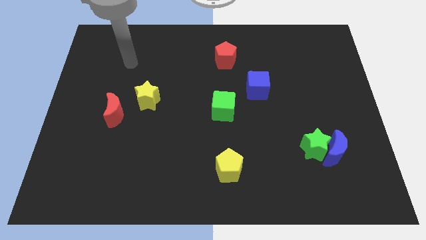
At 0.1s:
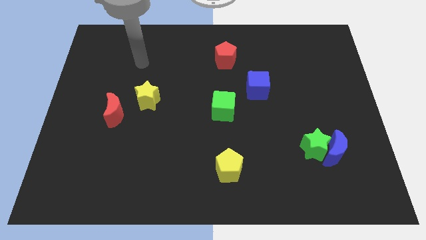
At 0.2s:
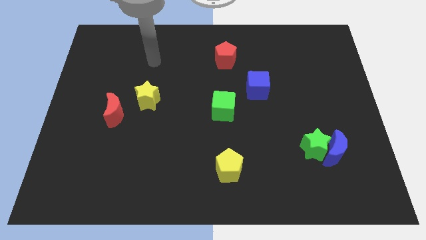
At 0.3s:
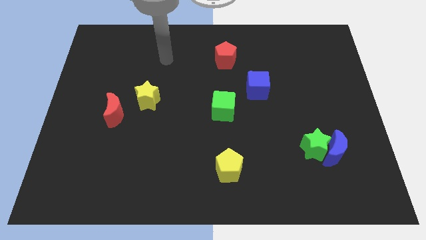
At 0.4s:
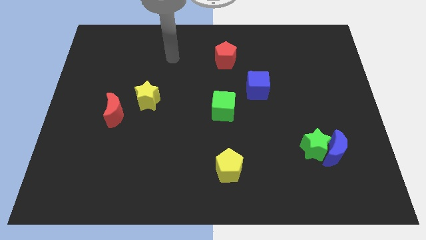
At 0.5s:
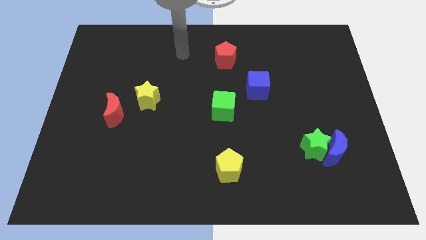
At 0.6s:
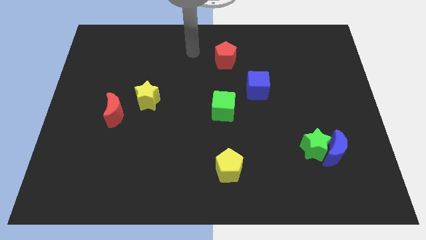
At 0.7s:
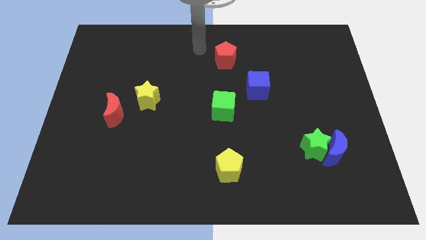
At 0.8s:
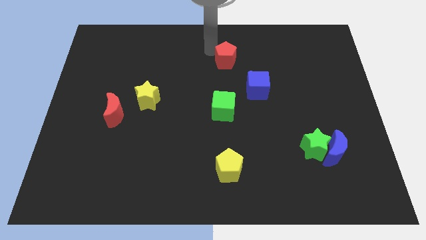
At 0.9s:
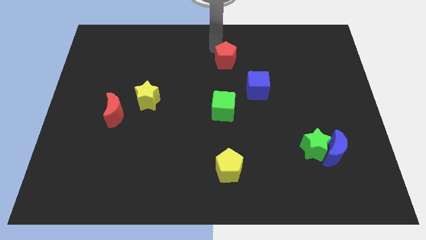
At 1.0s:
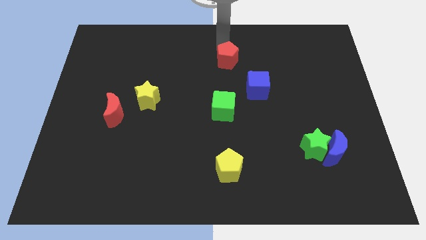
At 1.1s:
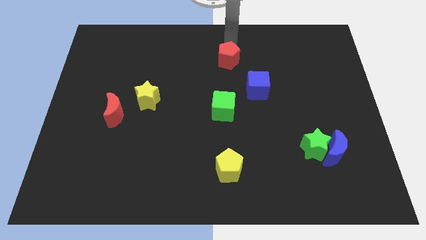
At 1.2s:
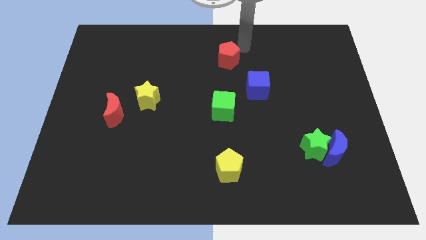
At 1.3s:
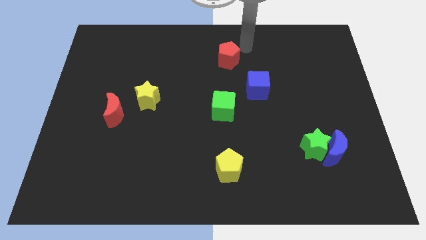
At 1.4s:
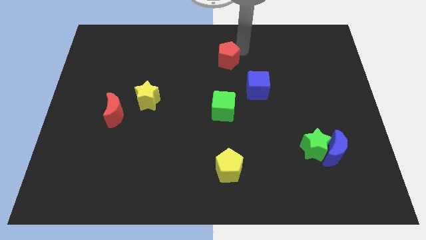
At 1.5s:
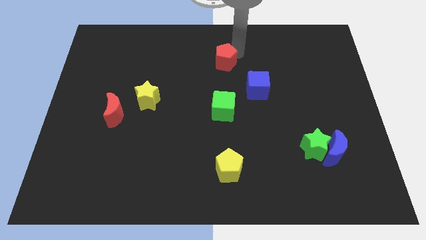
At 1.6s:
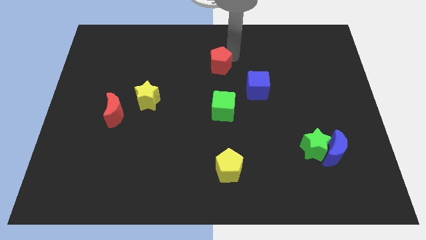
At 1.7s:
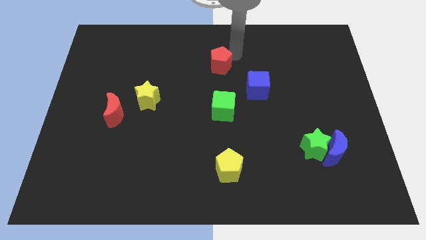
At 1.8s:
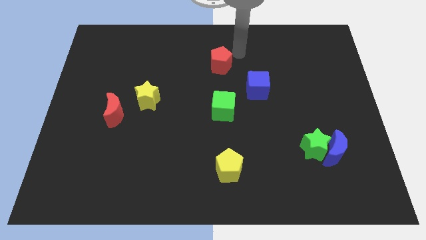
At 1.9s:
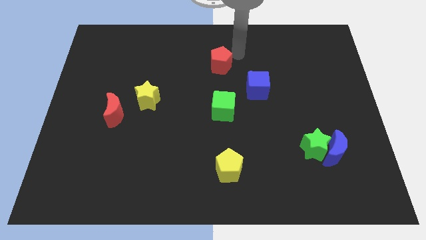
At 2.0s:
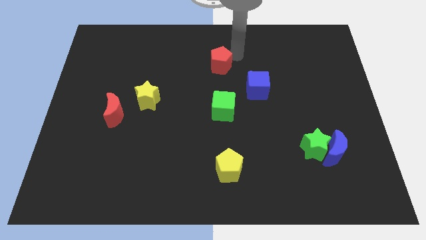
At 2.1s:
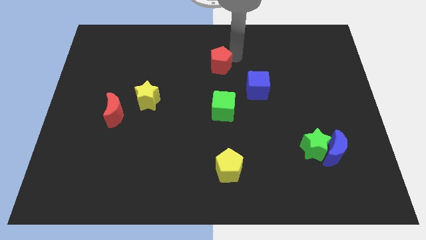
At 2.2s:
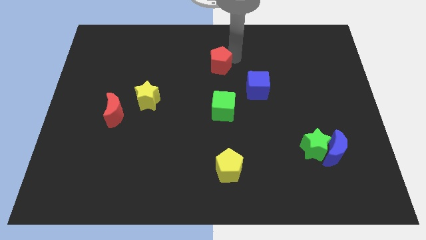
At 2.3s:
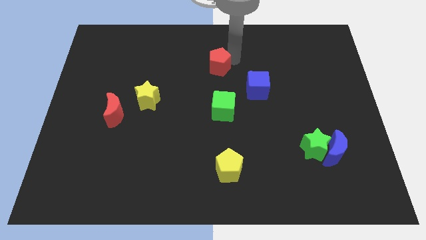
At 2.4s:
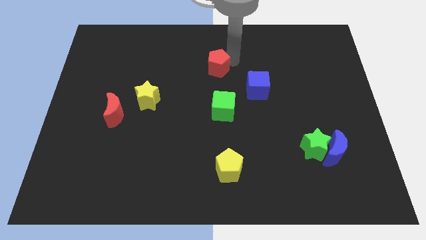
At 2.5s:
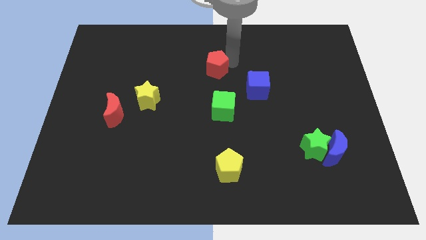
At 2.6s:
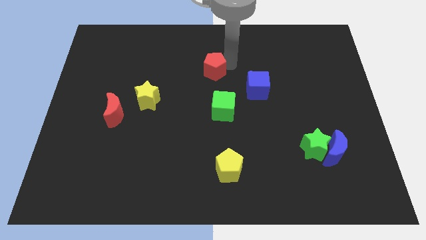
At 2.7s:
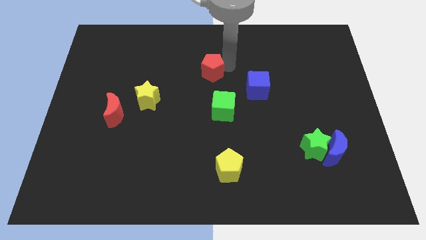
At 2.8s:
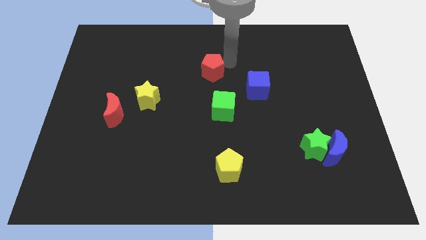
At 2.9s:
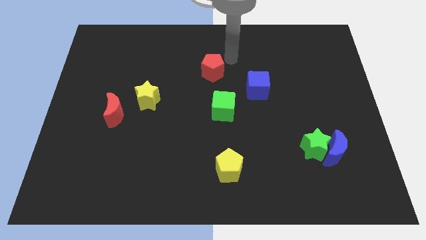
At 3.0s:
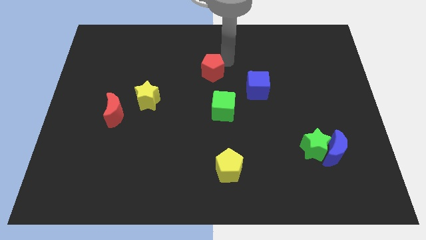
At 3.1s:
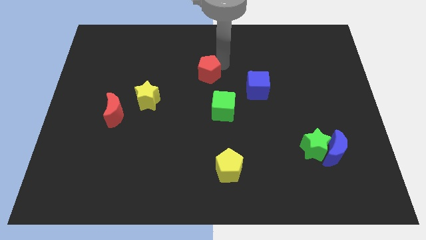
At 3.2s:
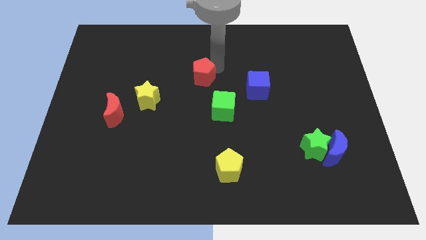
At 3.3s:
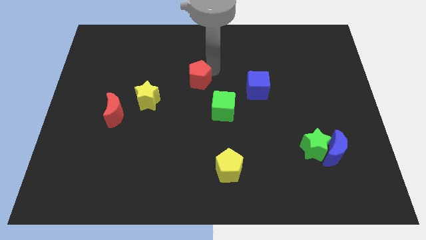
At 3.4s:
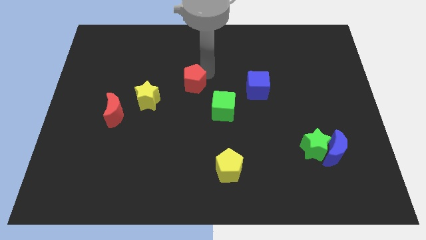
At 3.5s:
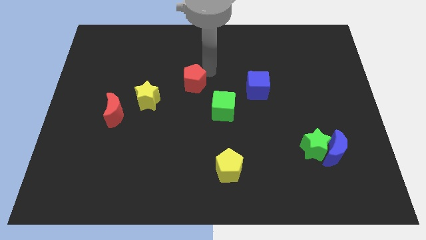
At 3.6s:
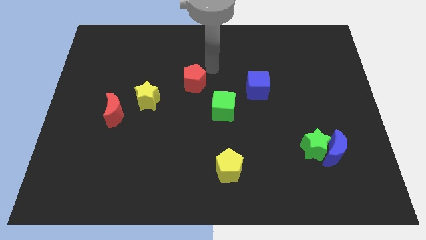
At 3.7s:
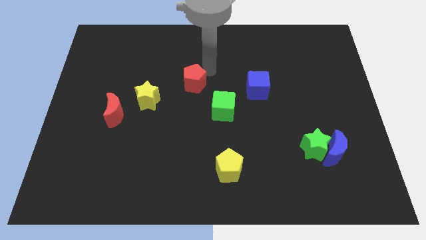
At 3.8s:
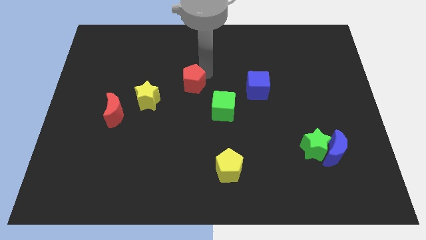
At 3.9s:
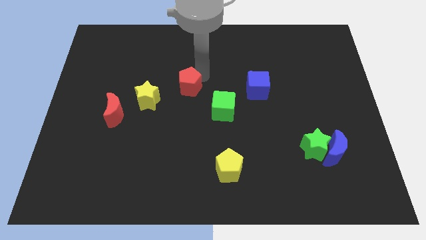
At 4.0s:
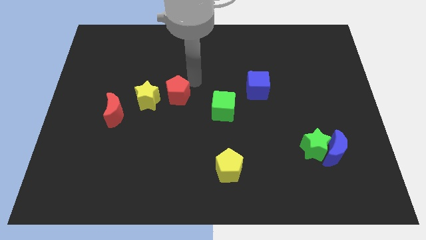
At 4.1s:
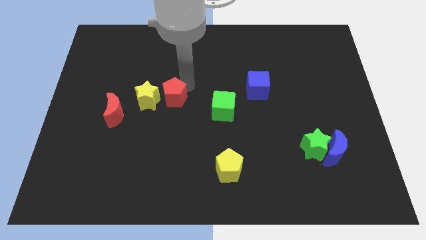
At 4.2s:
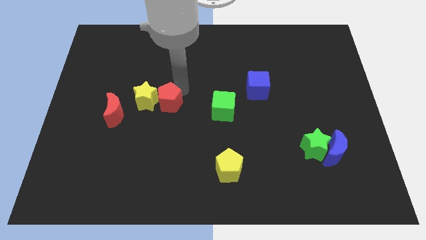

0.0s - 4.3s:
push the red pentagon downwards and then to the left

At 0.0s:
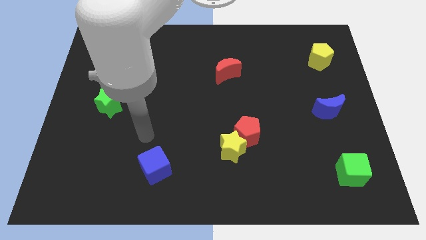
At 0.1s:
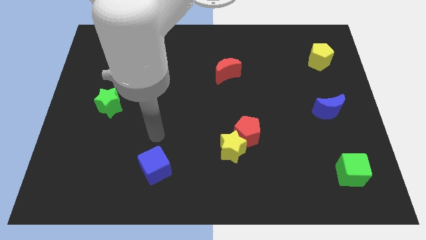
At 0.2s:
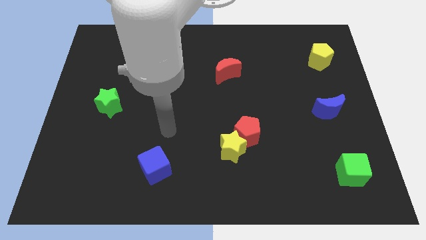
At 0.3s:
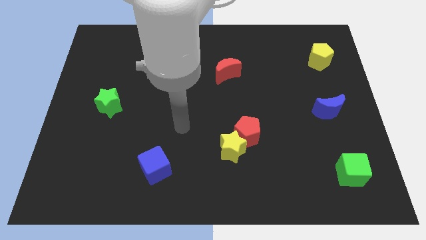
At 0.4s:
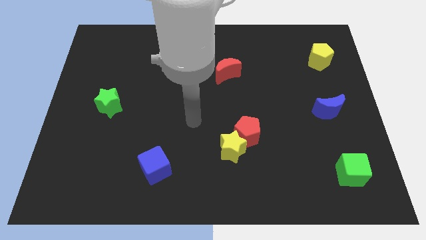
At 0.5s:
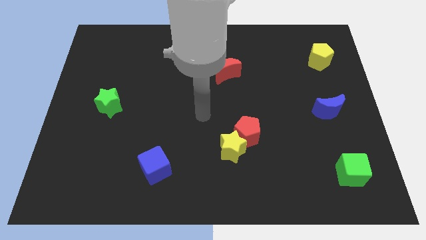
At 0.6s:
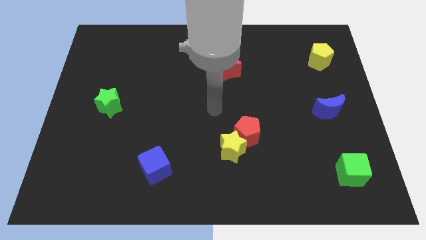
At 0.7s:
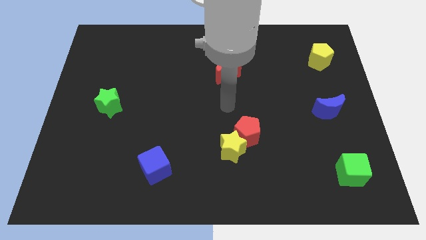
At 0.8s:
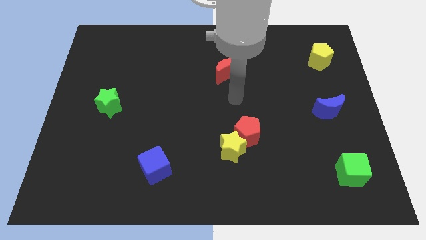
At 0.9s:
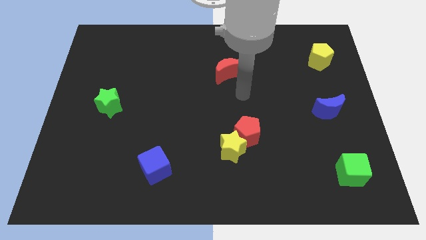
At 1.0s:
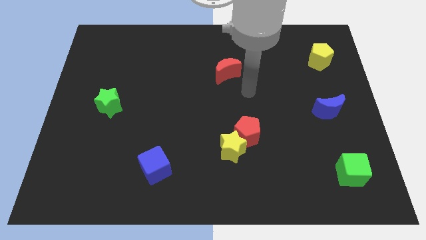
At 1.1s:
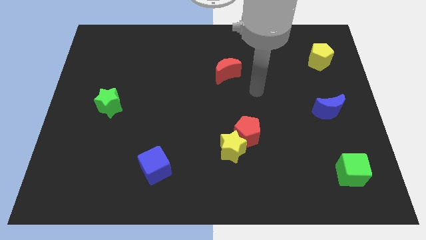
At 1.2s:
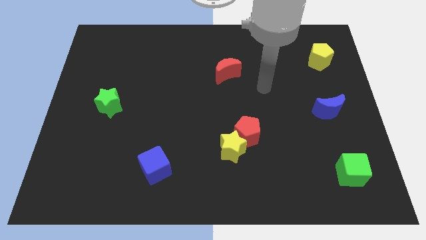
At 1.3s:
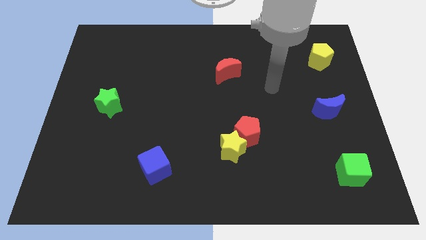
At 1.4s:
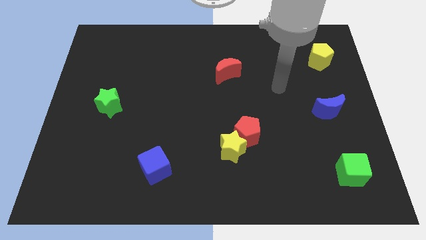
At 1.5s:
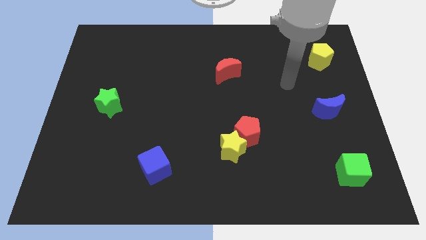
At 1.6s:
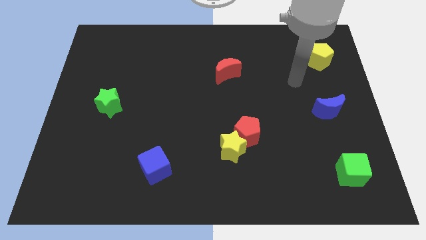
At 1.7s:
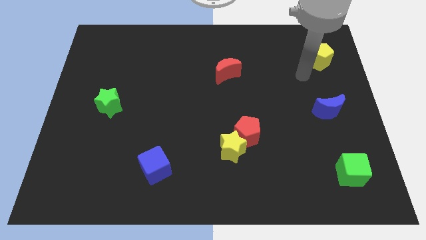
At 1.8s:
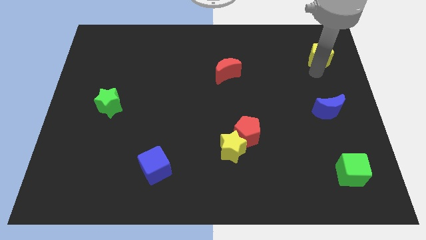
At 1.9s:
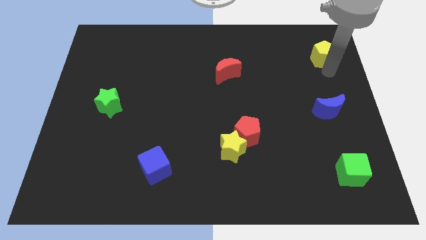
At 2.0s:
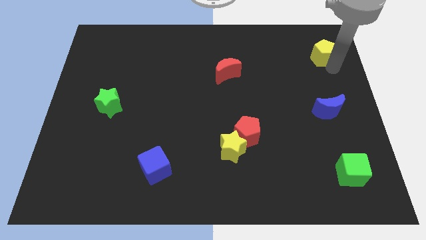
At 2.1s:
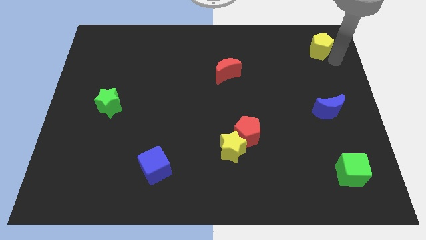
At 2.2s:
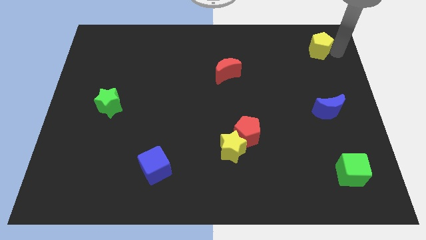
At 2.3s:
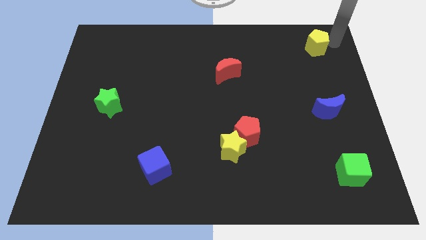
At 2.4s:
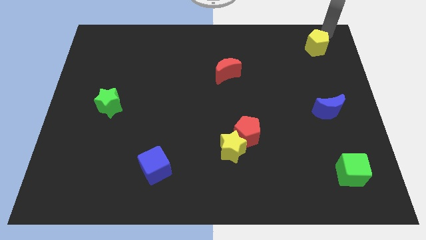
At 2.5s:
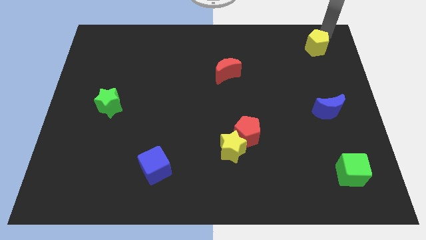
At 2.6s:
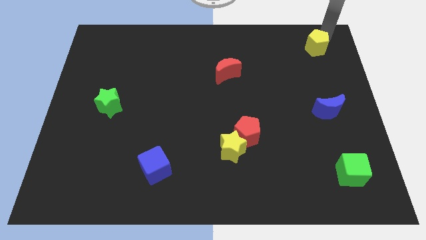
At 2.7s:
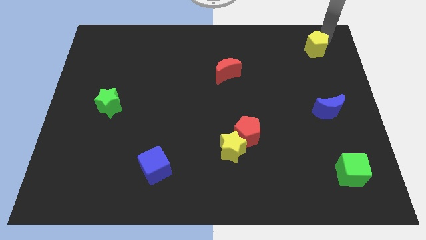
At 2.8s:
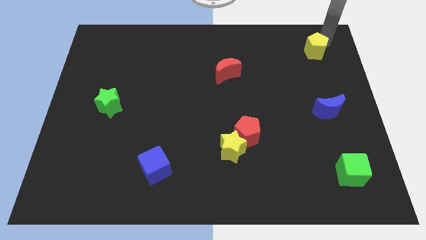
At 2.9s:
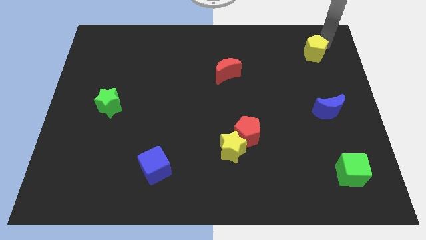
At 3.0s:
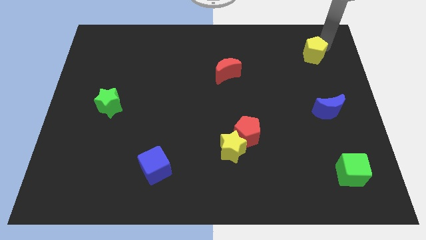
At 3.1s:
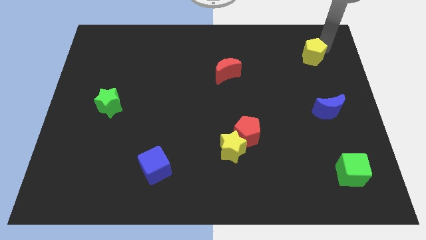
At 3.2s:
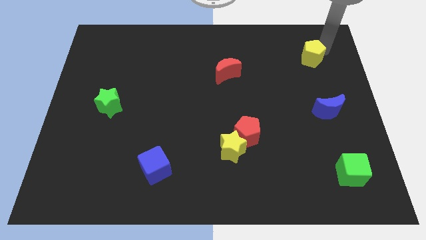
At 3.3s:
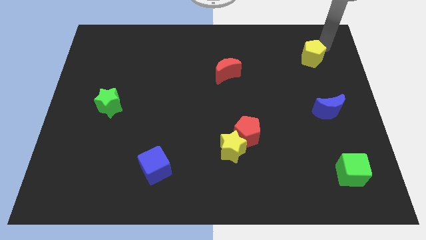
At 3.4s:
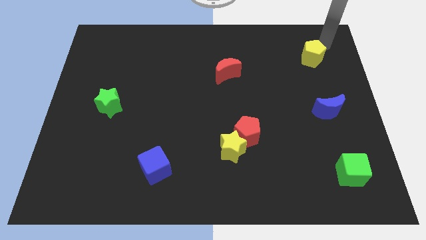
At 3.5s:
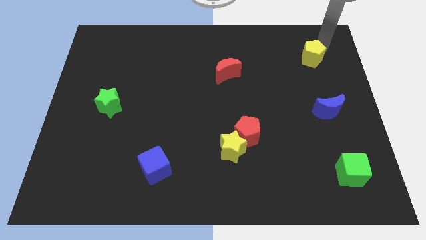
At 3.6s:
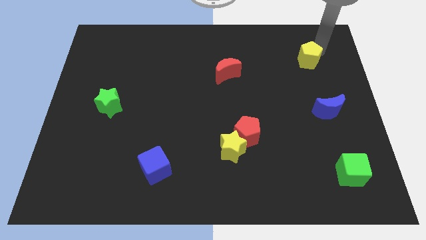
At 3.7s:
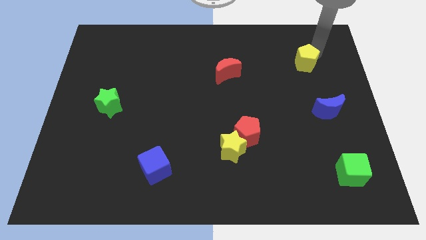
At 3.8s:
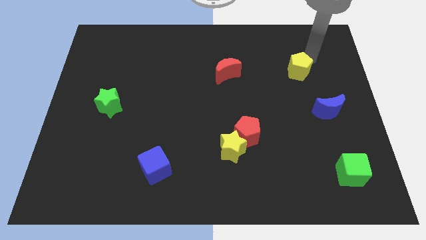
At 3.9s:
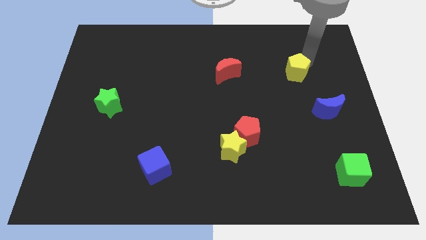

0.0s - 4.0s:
move the yellow pentagon downwards and left diagonally a bit

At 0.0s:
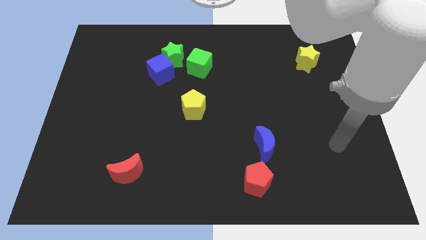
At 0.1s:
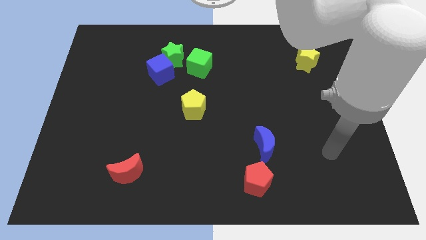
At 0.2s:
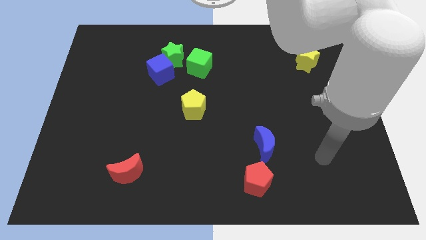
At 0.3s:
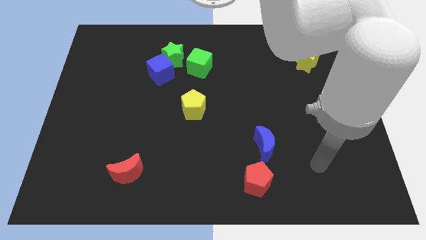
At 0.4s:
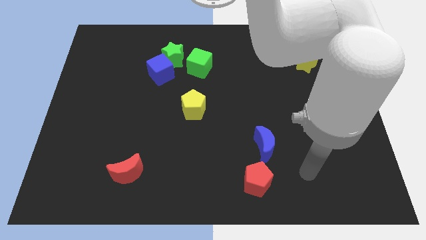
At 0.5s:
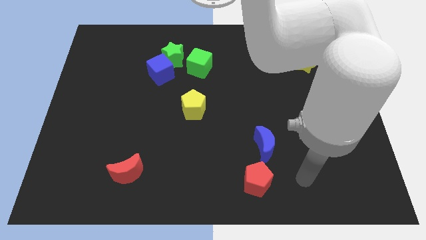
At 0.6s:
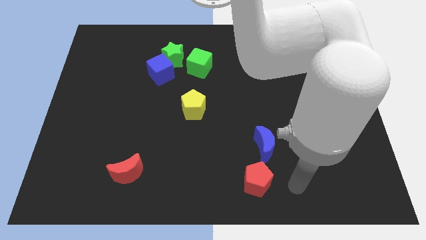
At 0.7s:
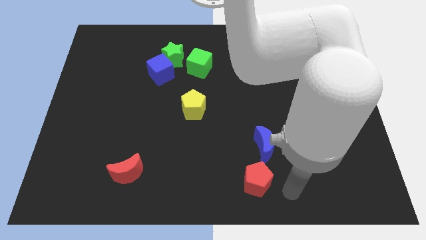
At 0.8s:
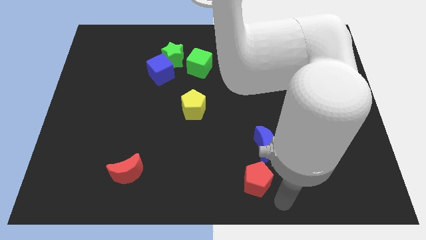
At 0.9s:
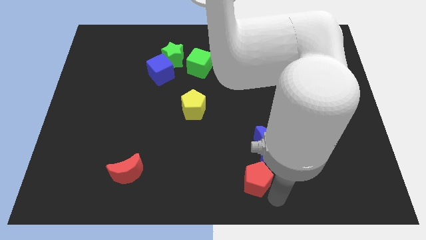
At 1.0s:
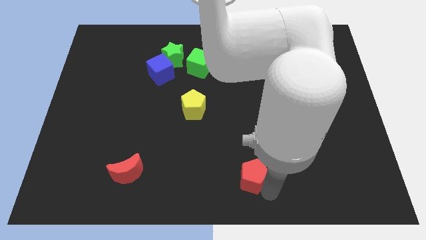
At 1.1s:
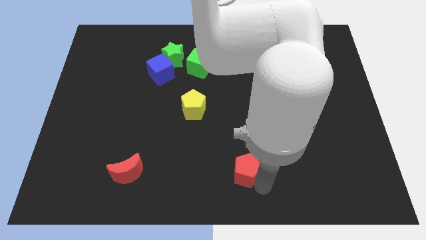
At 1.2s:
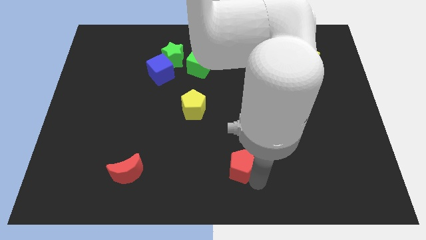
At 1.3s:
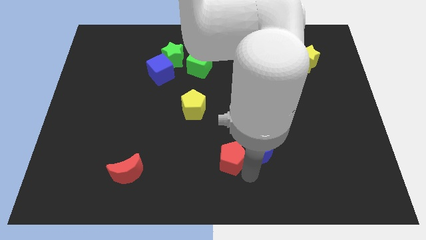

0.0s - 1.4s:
push the red pentagon a little diagonally upwards and to the left
